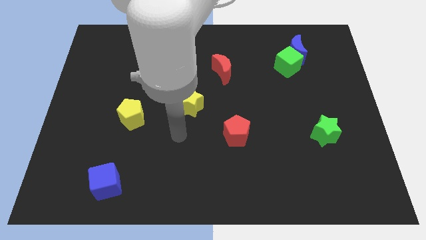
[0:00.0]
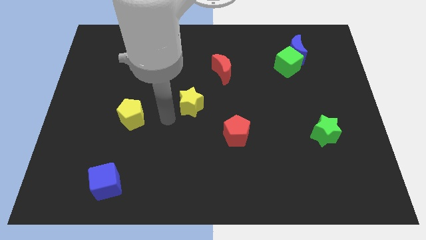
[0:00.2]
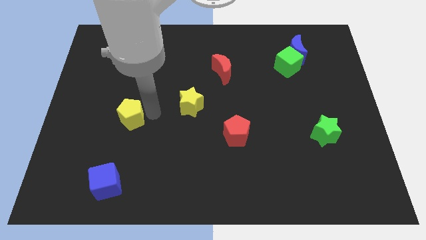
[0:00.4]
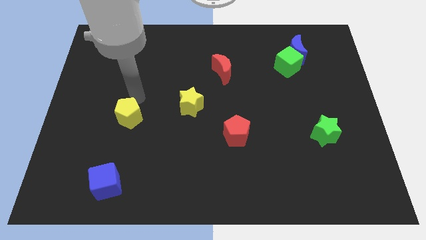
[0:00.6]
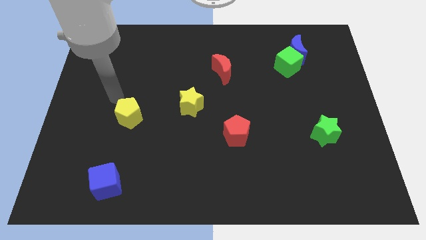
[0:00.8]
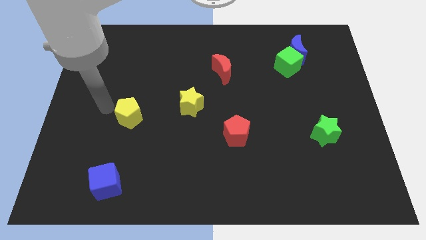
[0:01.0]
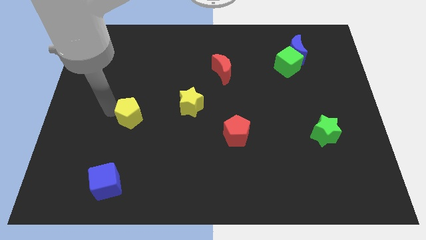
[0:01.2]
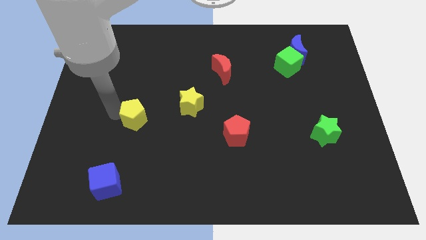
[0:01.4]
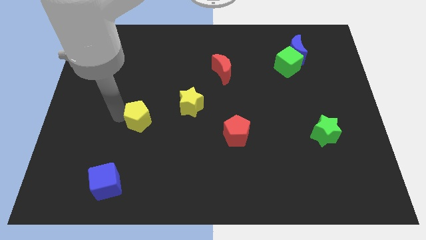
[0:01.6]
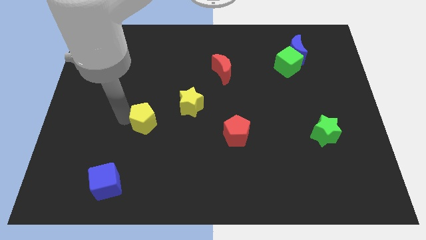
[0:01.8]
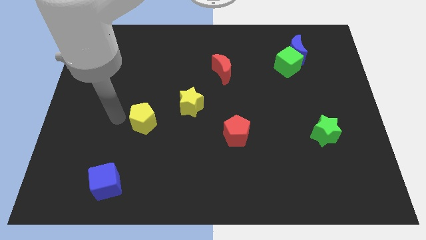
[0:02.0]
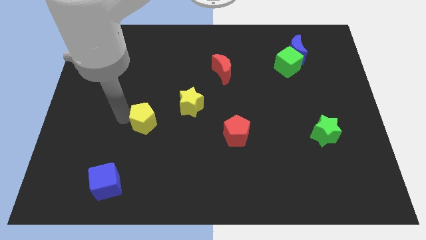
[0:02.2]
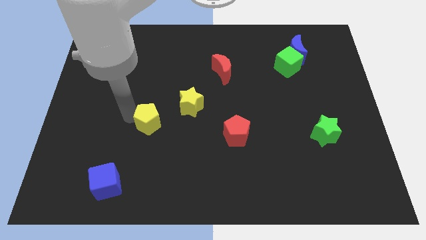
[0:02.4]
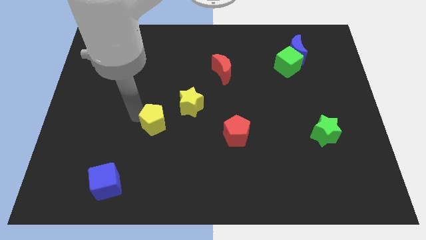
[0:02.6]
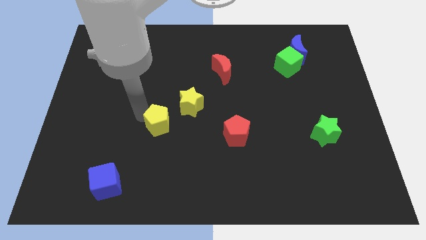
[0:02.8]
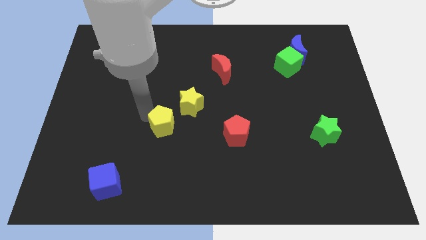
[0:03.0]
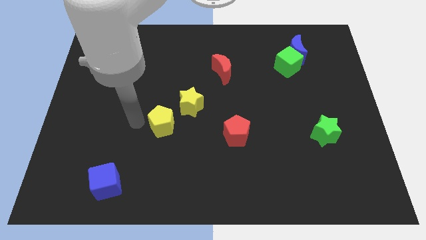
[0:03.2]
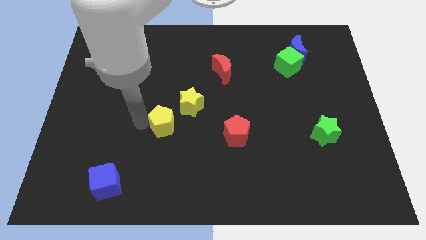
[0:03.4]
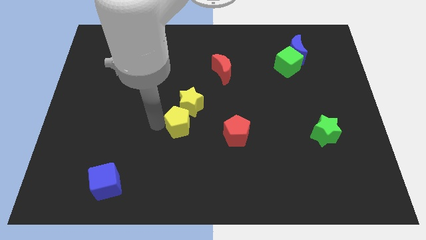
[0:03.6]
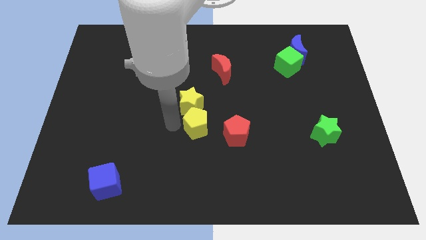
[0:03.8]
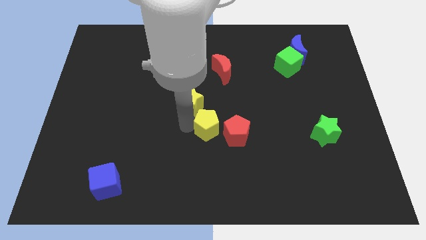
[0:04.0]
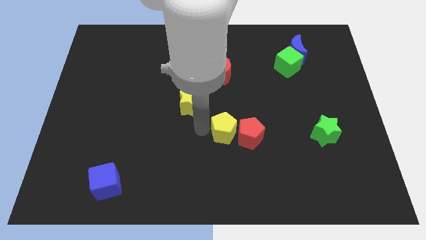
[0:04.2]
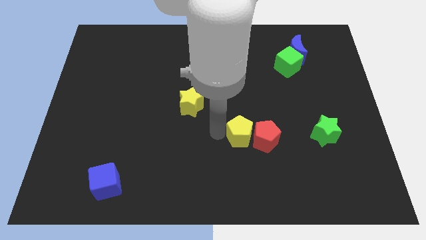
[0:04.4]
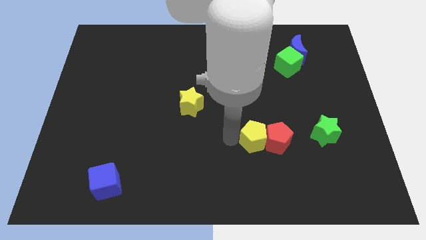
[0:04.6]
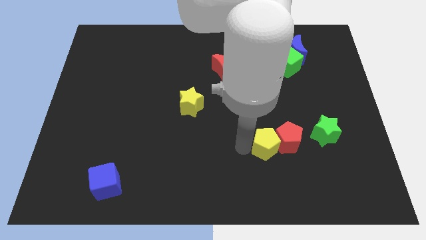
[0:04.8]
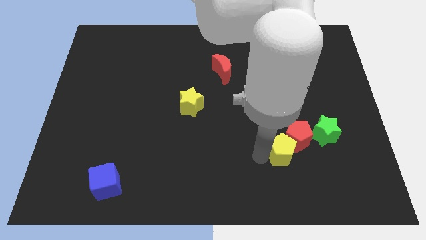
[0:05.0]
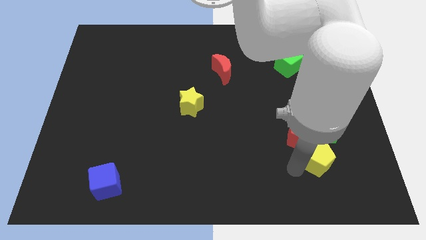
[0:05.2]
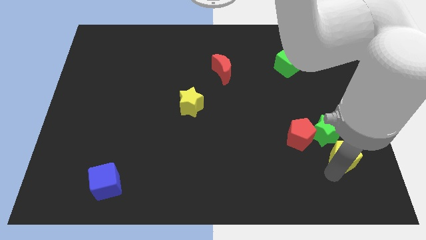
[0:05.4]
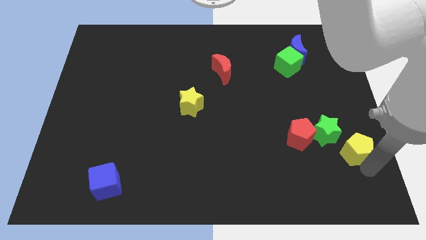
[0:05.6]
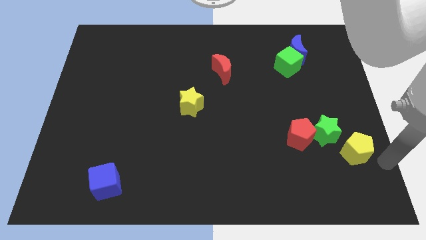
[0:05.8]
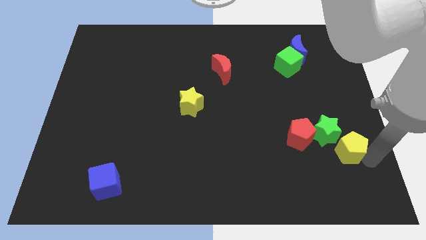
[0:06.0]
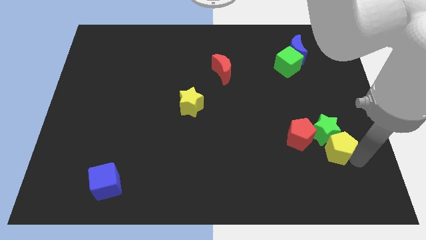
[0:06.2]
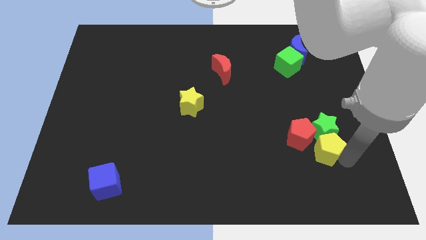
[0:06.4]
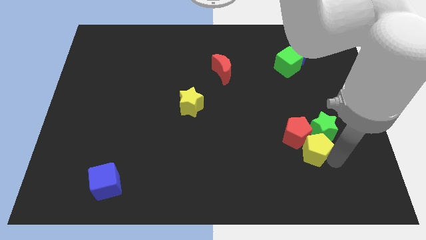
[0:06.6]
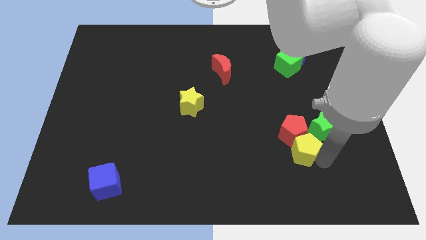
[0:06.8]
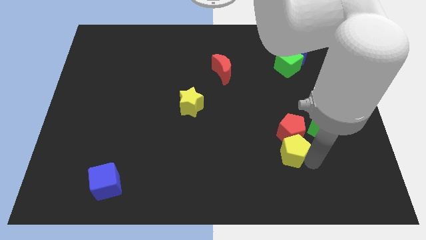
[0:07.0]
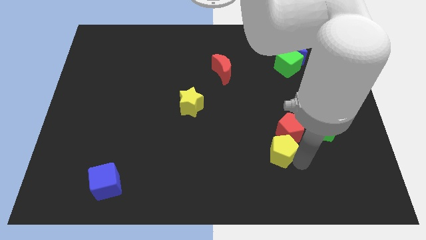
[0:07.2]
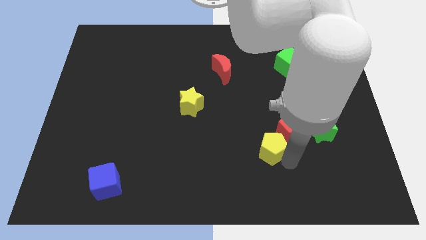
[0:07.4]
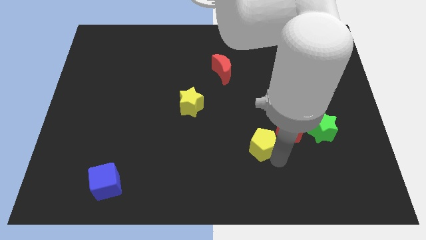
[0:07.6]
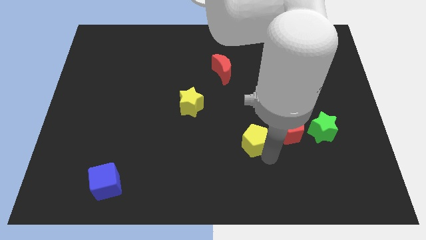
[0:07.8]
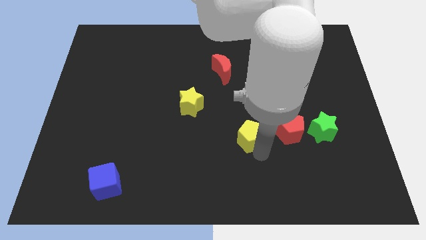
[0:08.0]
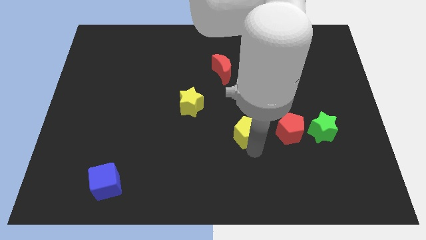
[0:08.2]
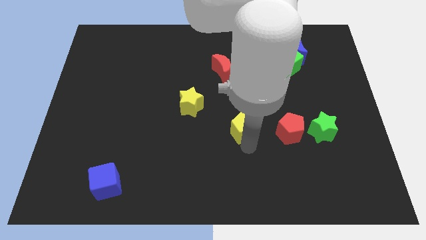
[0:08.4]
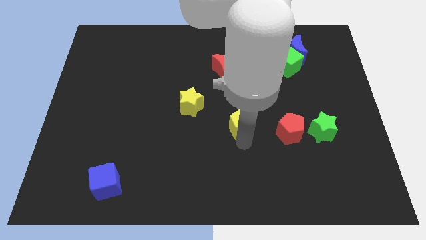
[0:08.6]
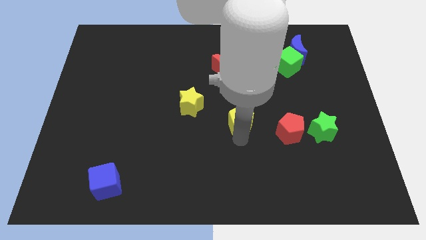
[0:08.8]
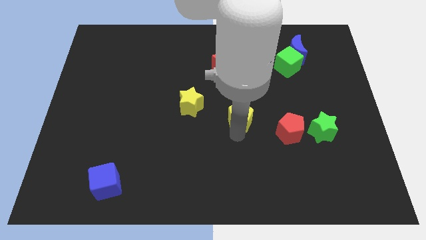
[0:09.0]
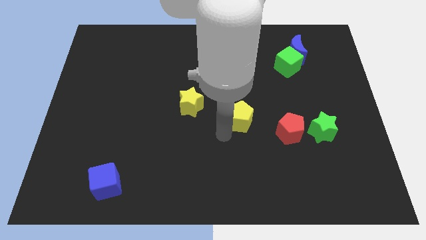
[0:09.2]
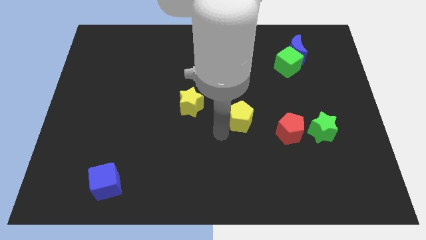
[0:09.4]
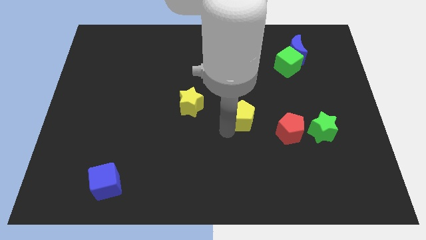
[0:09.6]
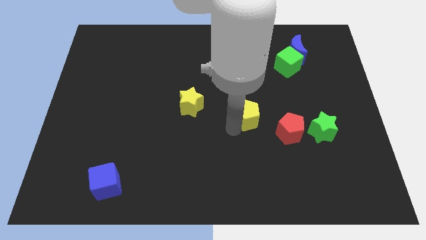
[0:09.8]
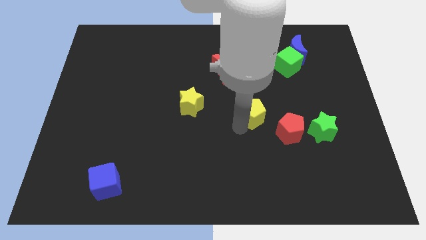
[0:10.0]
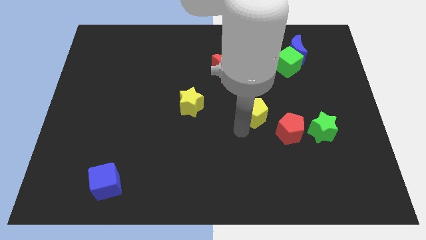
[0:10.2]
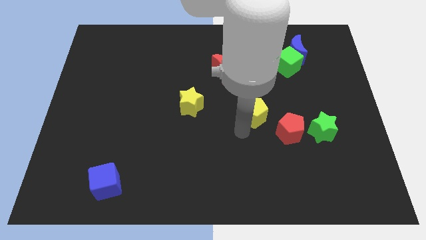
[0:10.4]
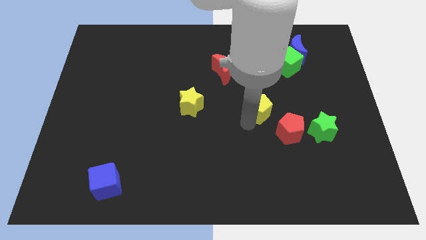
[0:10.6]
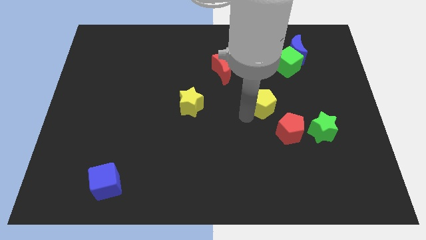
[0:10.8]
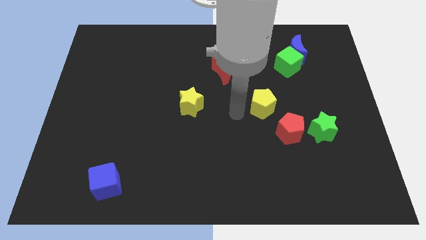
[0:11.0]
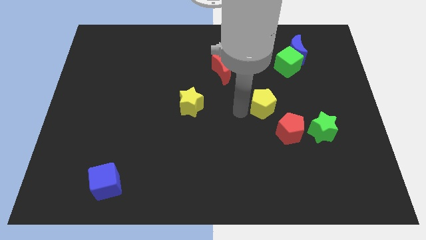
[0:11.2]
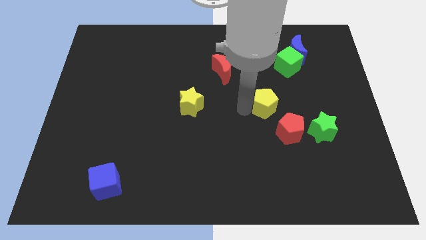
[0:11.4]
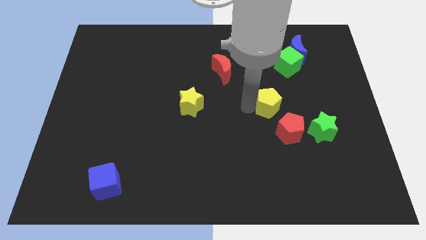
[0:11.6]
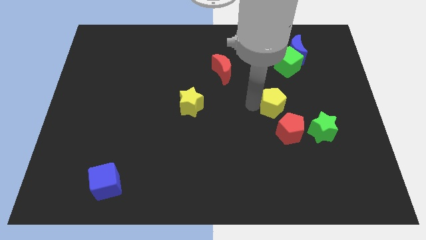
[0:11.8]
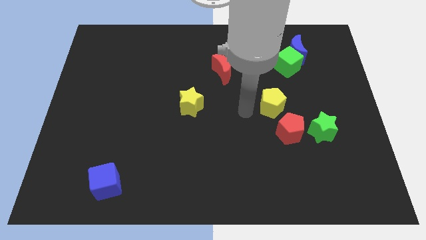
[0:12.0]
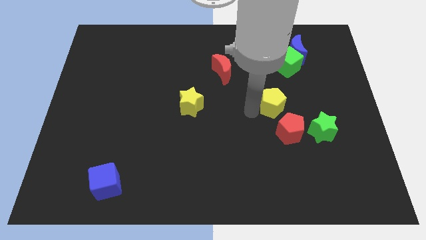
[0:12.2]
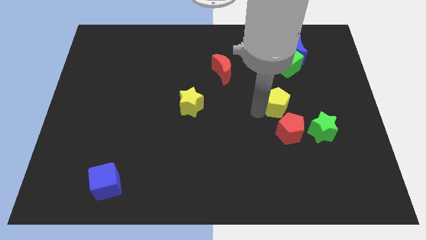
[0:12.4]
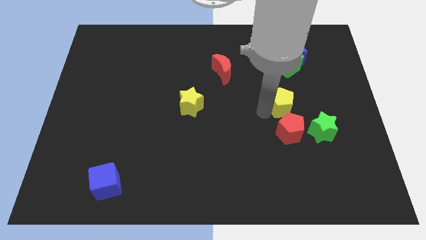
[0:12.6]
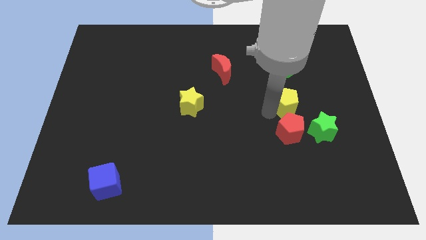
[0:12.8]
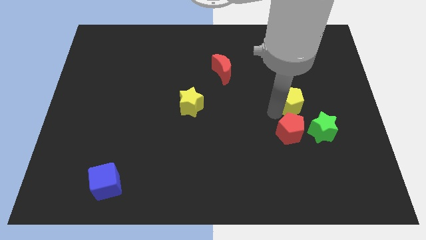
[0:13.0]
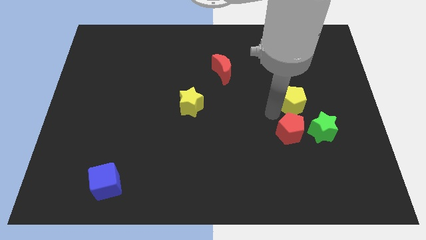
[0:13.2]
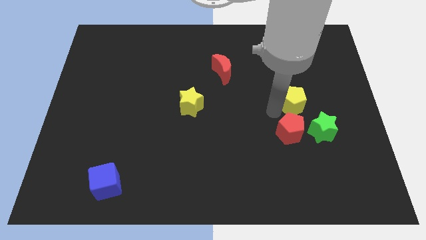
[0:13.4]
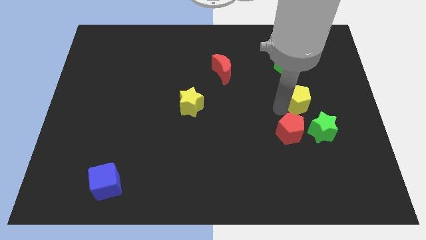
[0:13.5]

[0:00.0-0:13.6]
push the yellow pentagon above the green star
